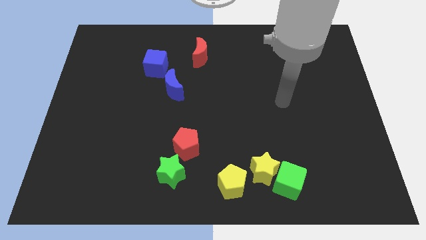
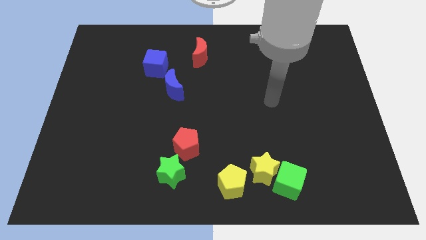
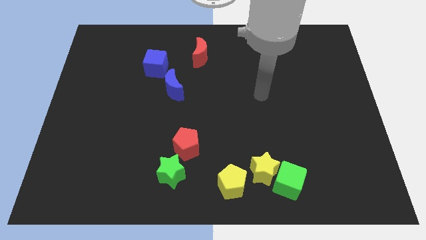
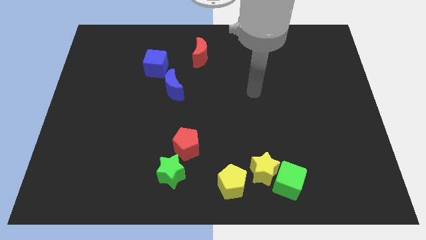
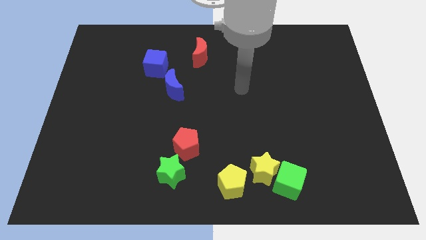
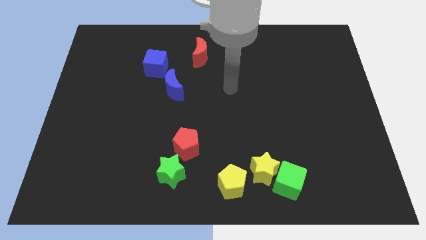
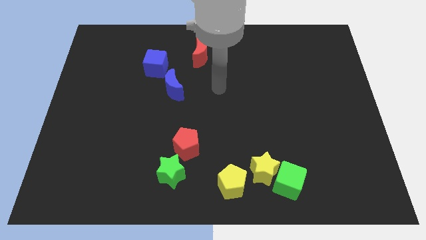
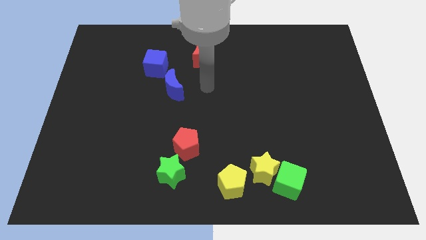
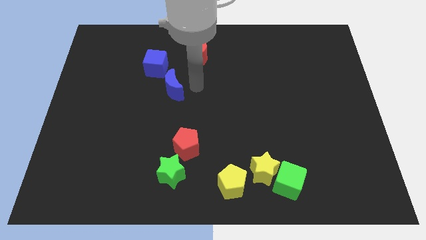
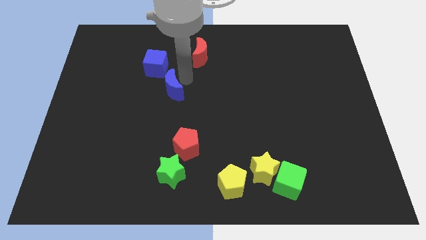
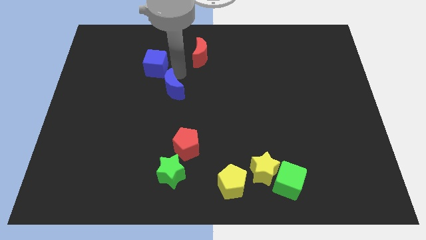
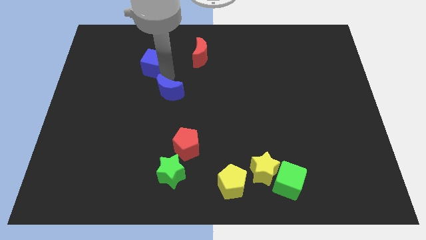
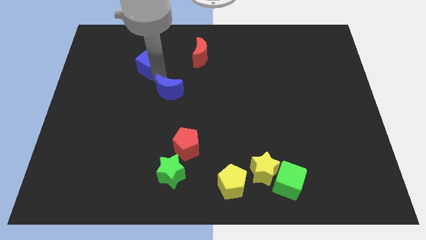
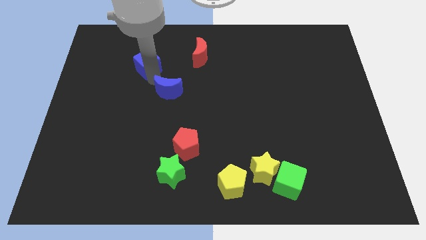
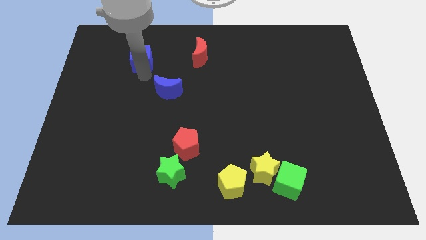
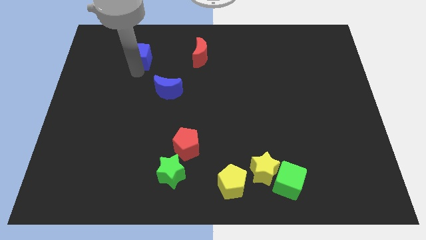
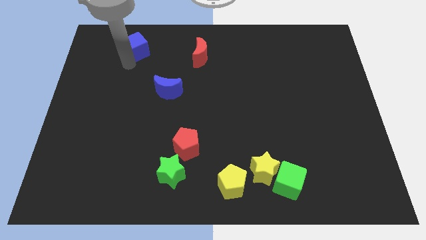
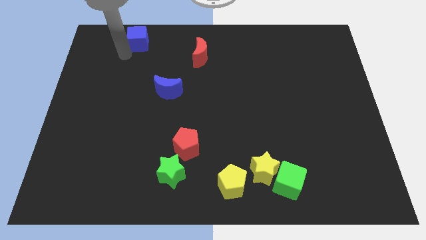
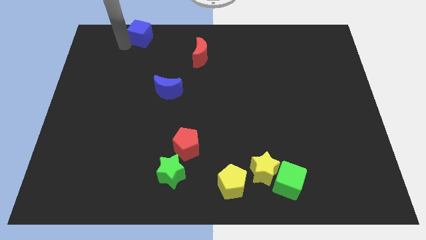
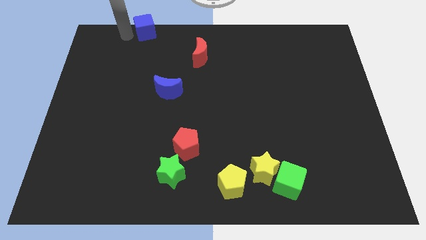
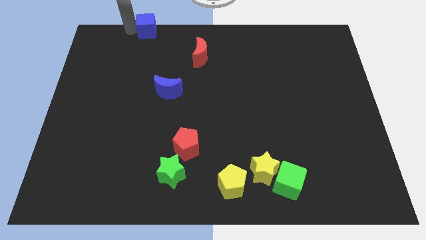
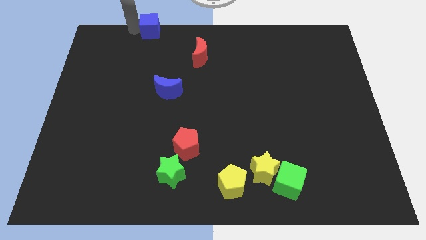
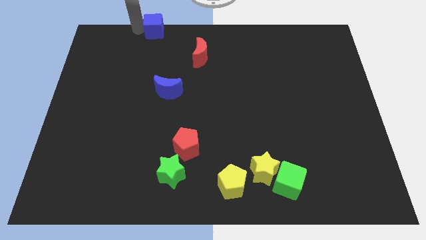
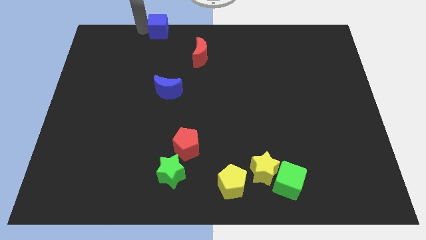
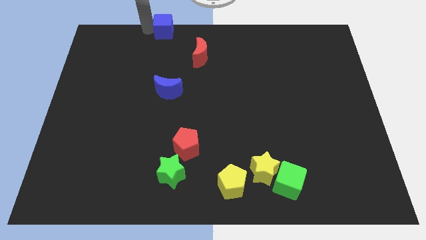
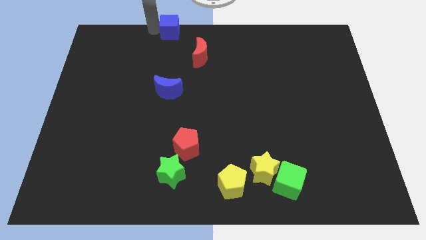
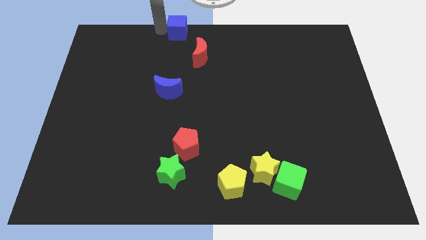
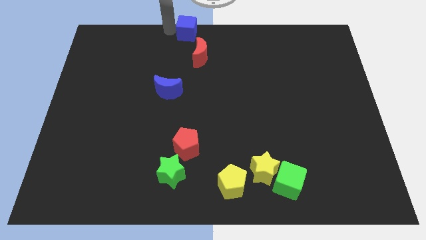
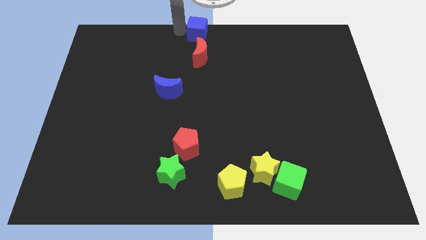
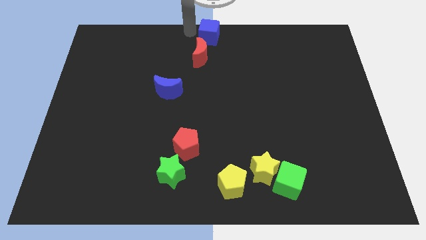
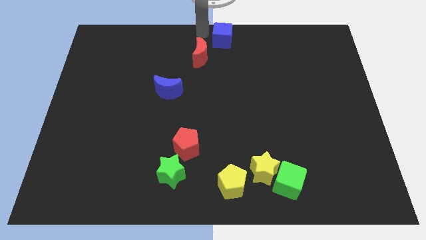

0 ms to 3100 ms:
slightly move the blue cube right

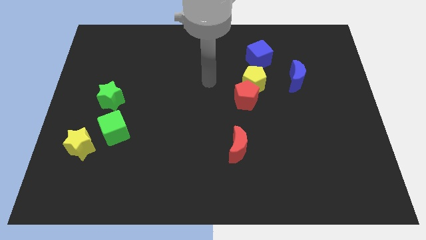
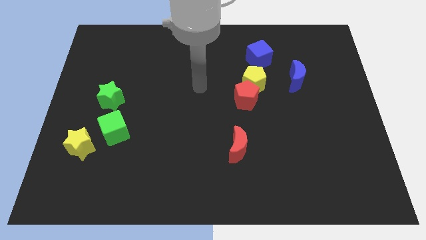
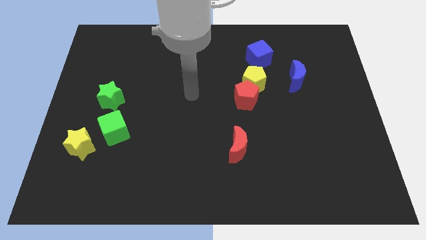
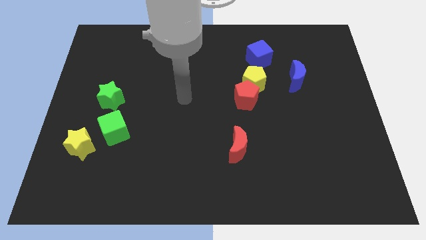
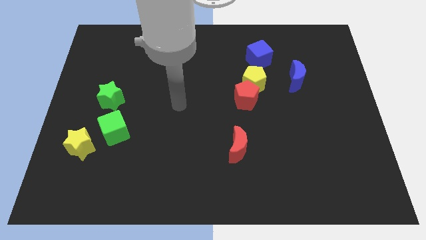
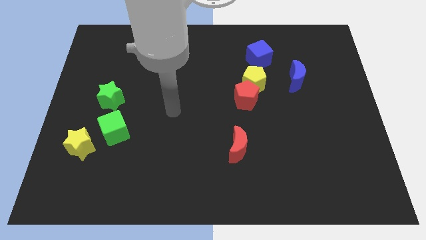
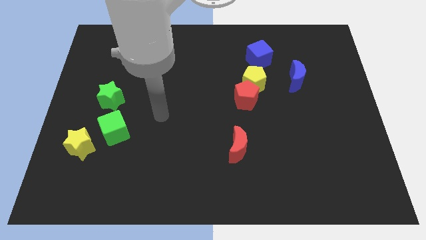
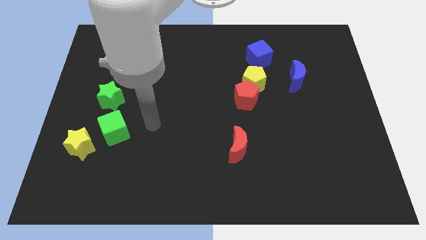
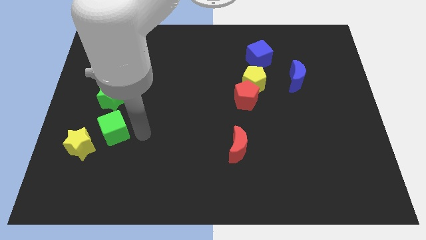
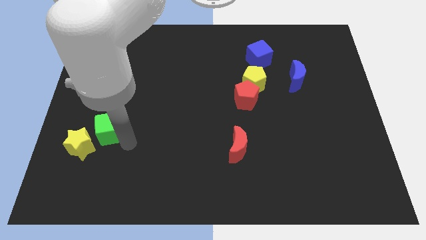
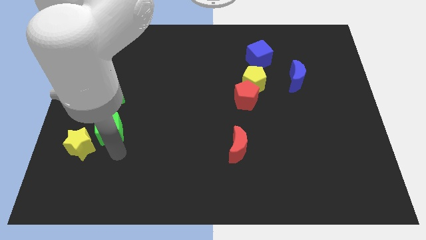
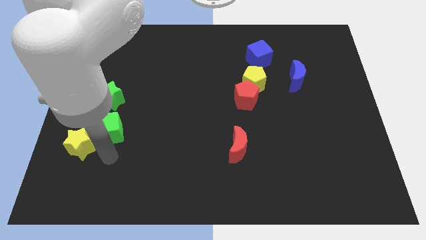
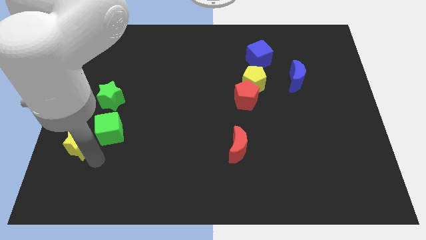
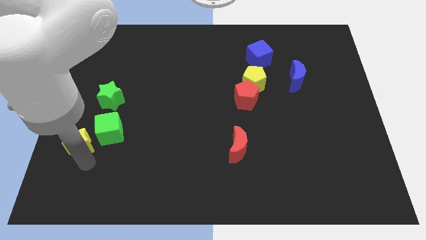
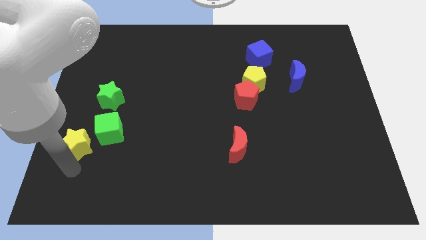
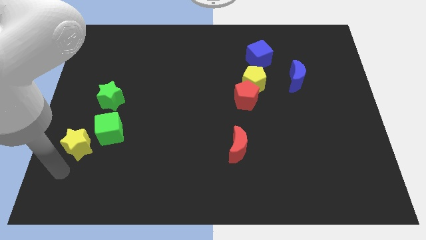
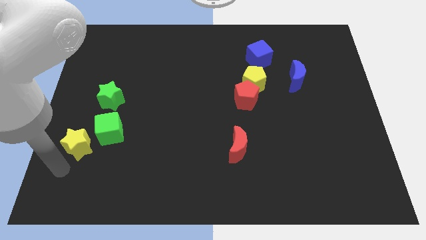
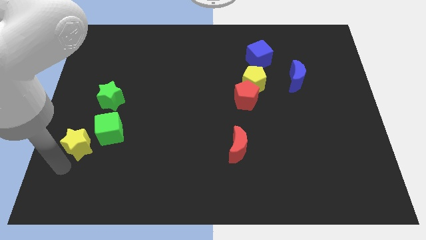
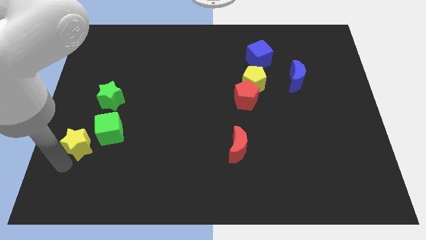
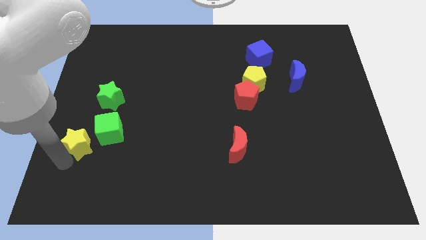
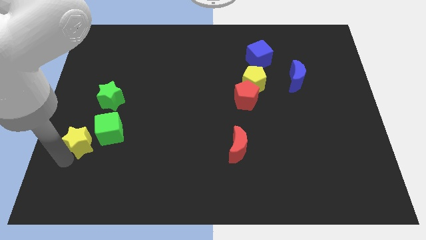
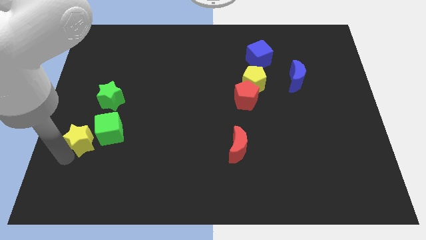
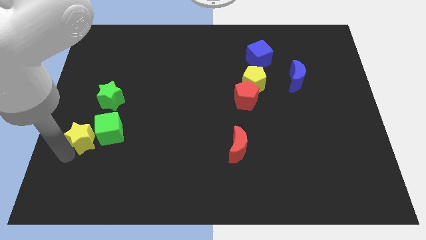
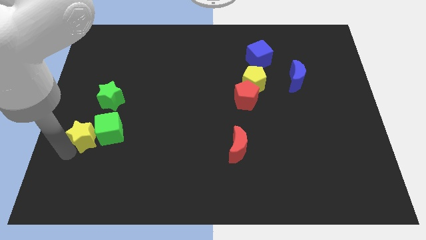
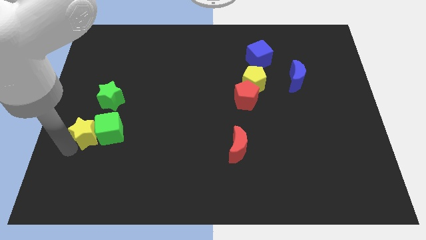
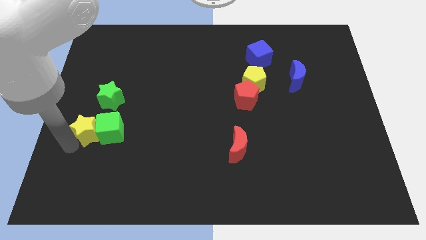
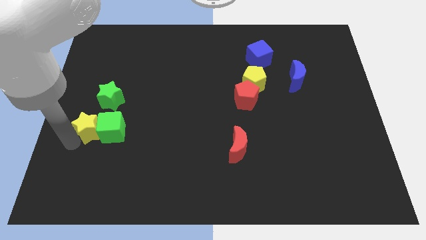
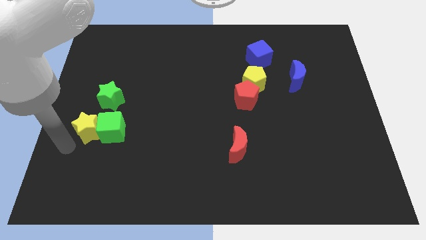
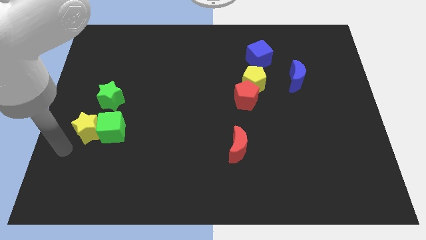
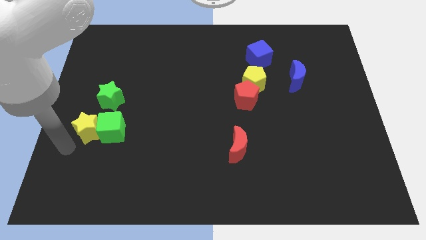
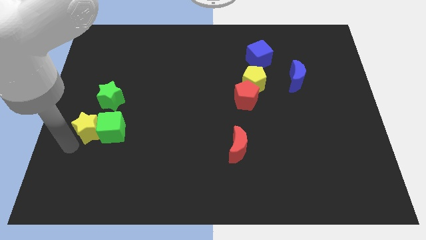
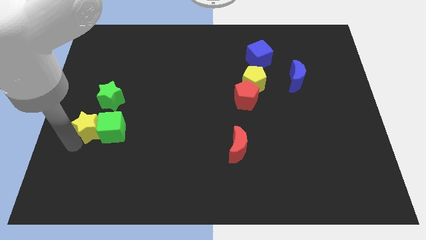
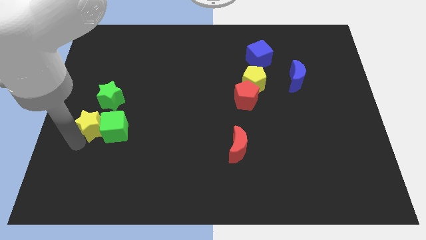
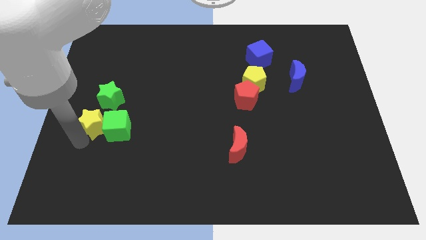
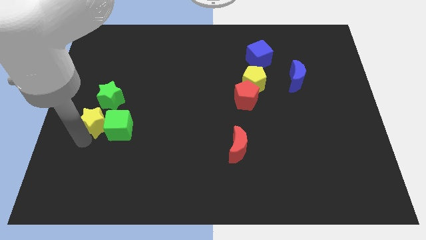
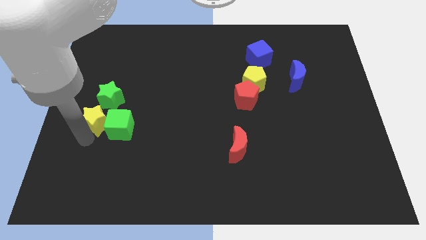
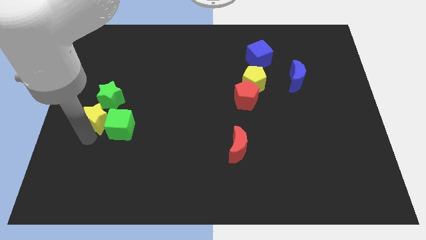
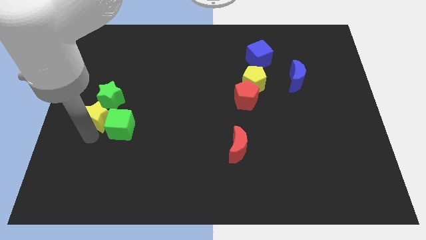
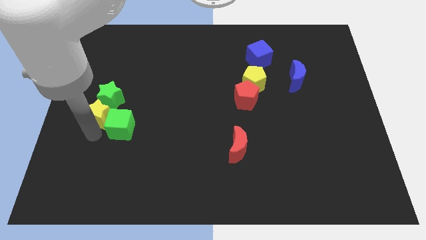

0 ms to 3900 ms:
slide the yellow star a bit diagonally upwards and right

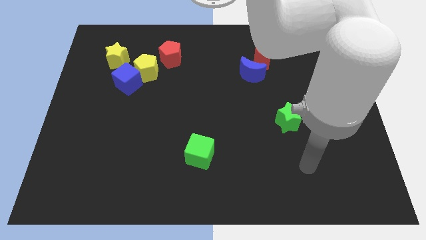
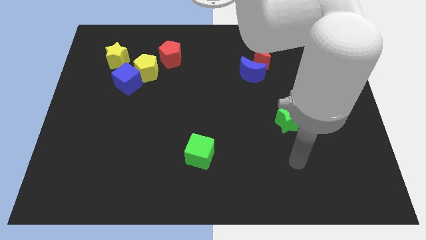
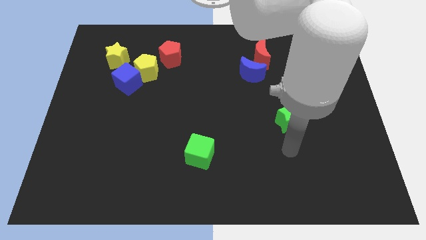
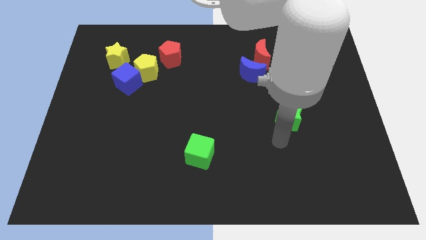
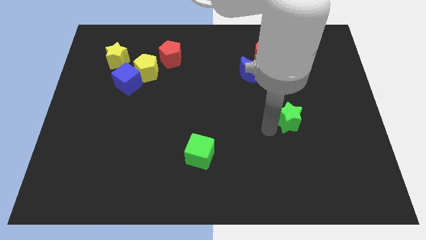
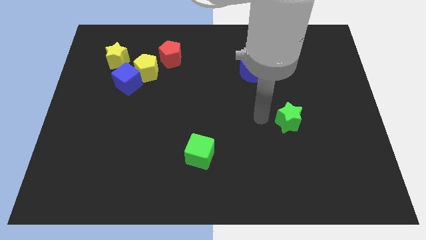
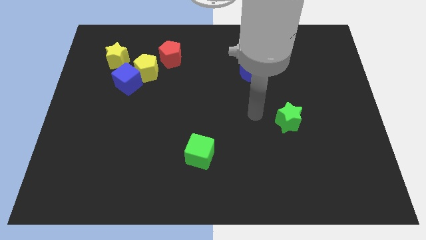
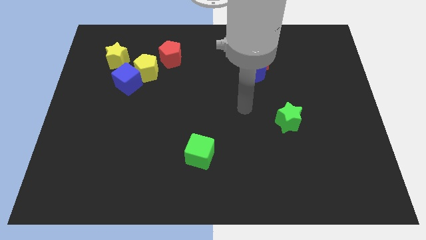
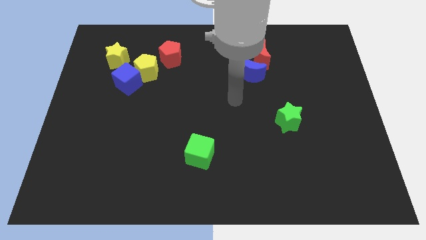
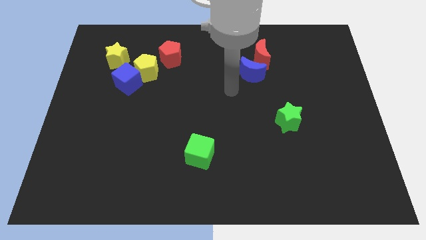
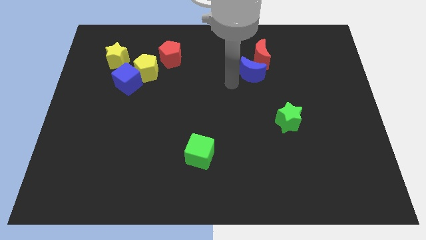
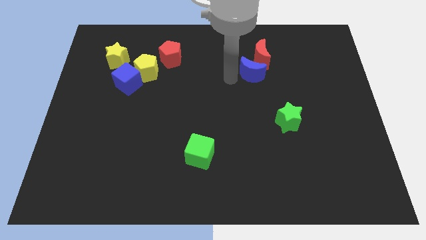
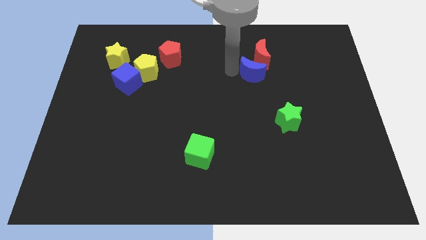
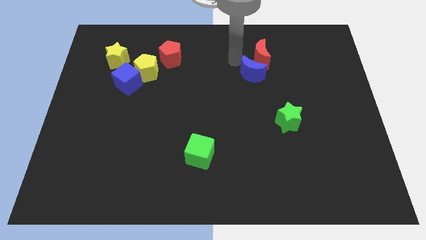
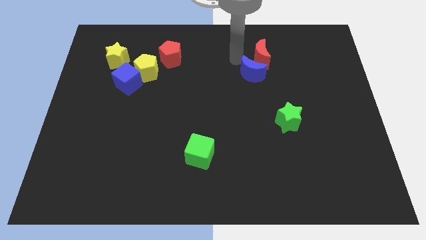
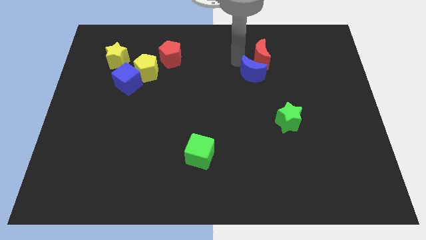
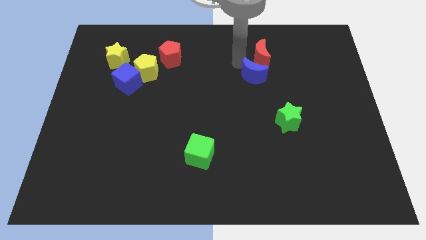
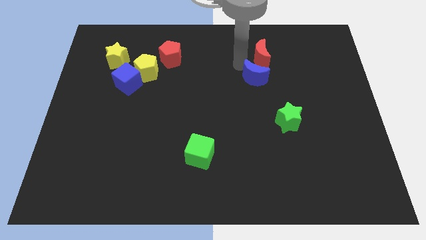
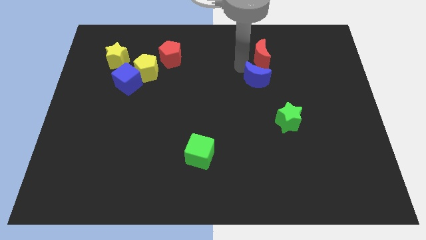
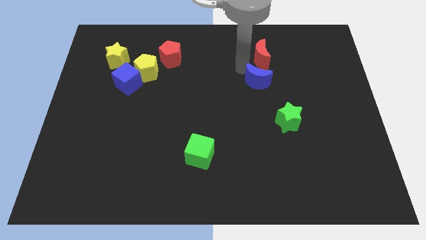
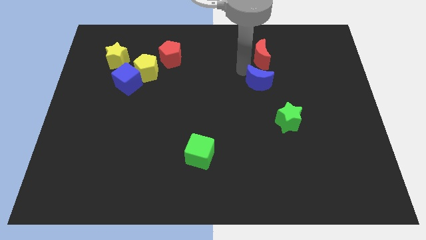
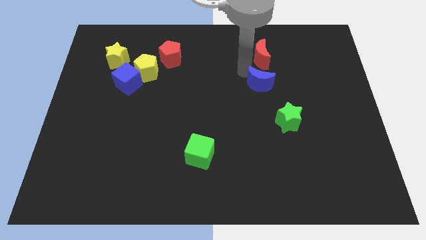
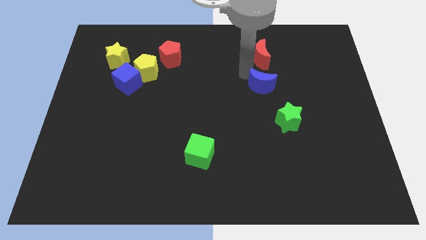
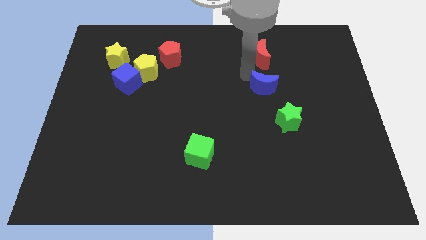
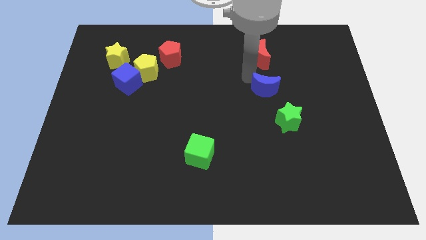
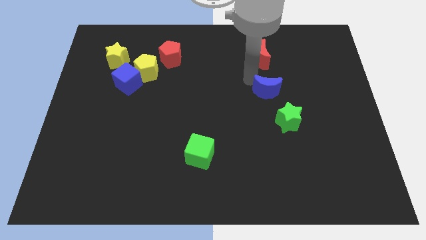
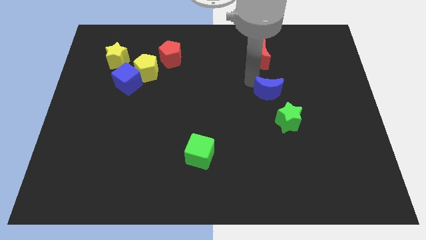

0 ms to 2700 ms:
slide the blue moon downwards and right diagonally a bit
